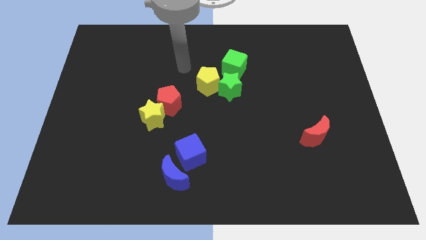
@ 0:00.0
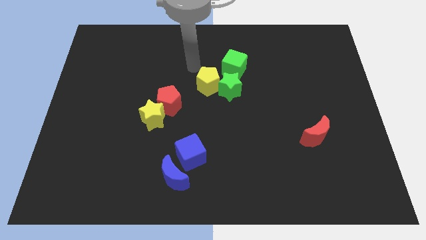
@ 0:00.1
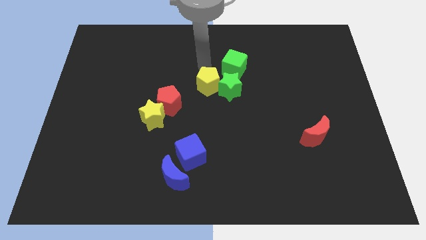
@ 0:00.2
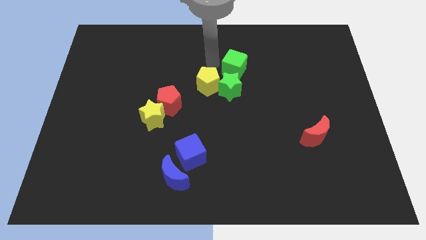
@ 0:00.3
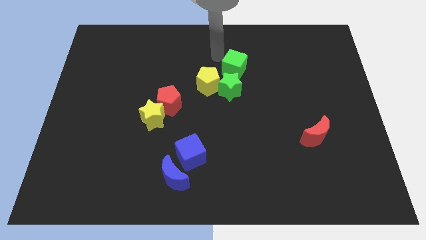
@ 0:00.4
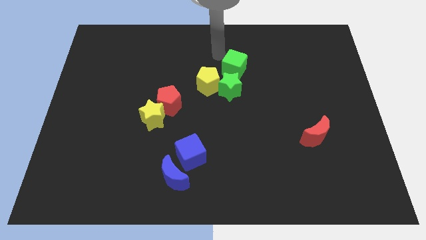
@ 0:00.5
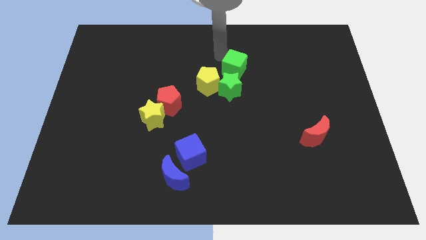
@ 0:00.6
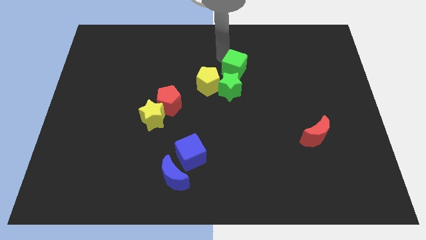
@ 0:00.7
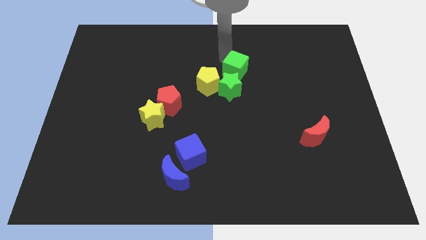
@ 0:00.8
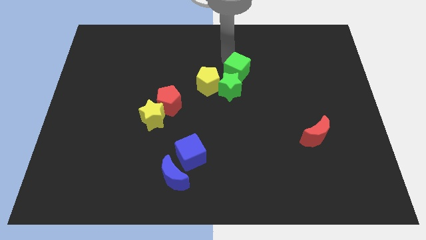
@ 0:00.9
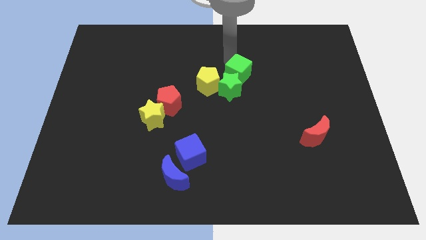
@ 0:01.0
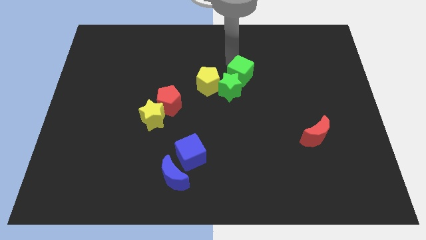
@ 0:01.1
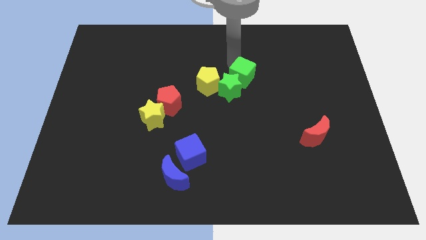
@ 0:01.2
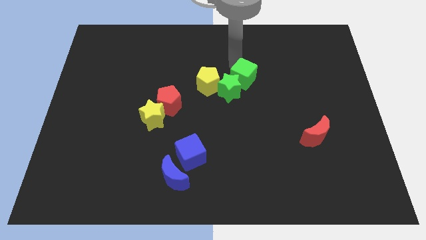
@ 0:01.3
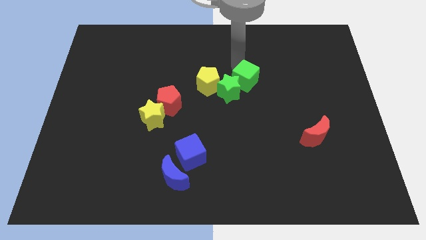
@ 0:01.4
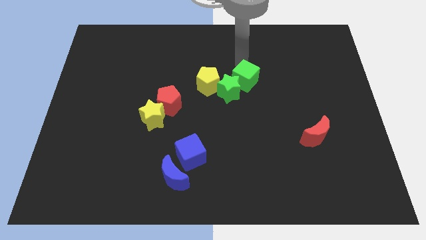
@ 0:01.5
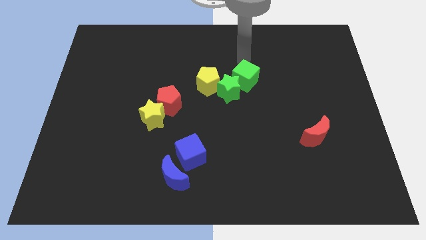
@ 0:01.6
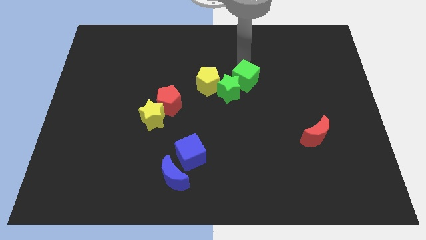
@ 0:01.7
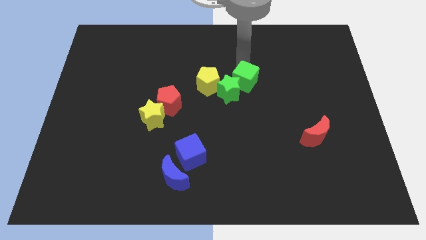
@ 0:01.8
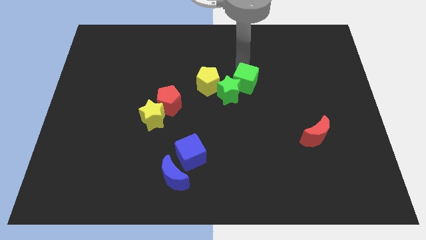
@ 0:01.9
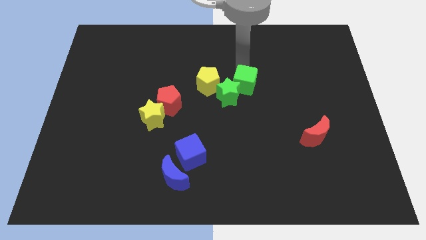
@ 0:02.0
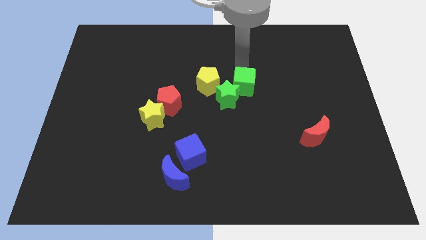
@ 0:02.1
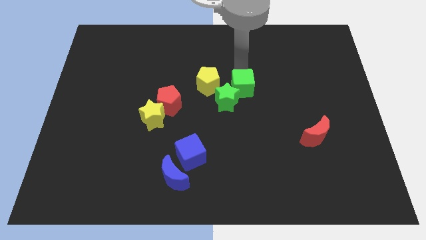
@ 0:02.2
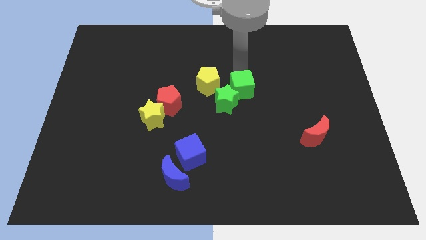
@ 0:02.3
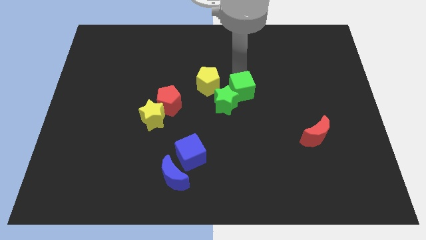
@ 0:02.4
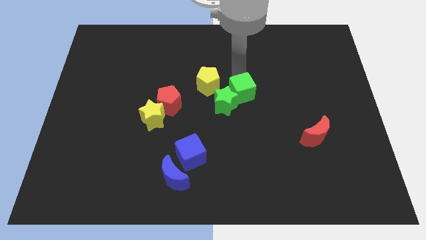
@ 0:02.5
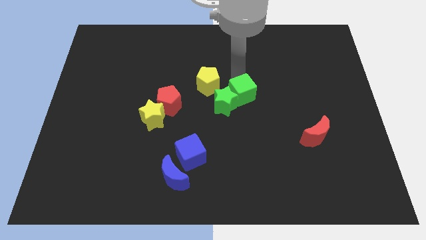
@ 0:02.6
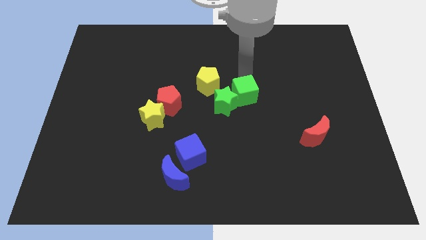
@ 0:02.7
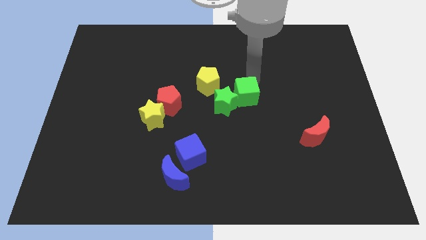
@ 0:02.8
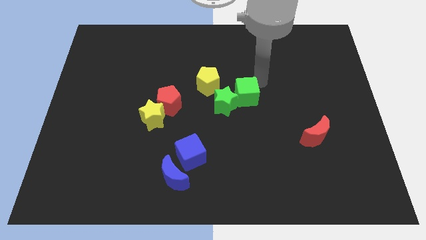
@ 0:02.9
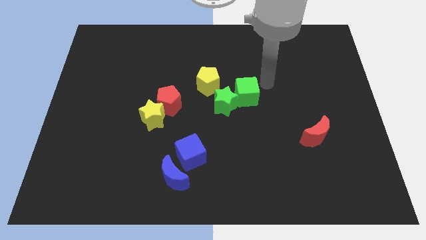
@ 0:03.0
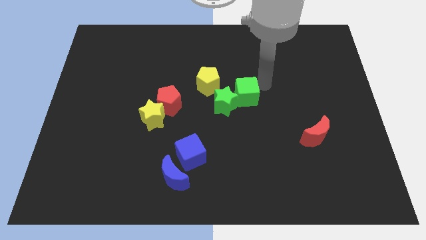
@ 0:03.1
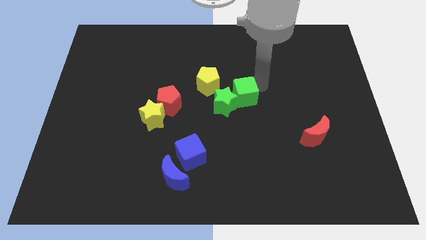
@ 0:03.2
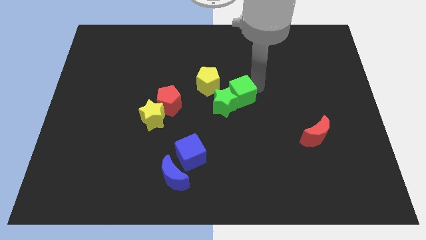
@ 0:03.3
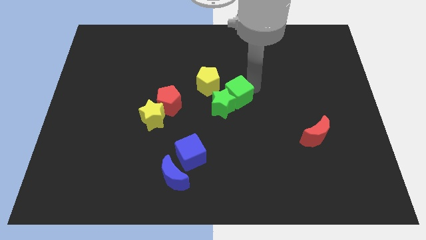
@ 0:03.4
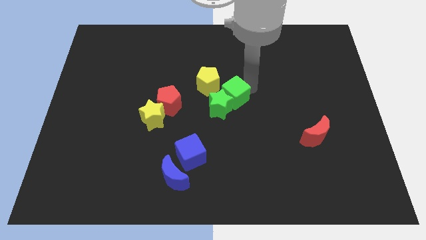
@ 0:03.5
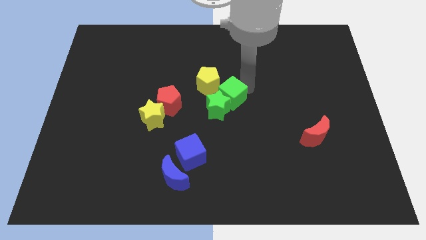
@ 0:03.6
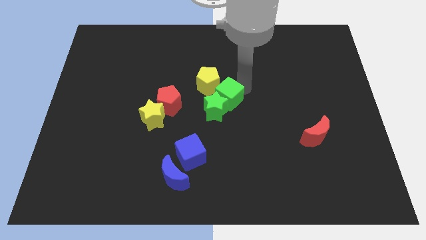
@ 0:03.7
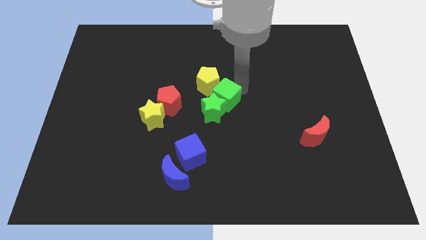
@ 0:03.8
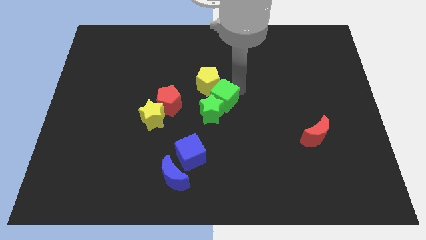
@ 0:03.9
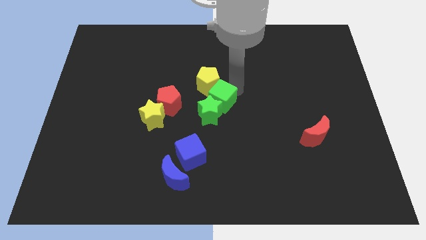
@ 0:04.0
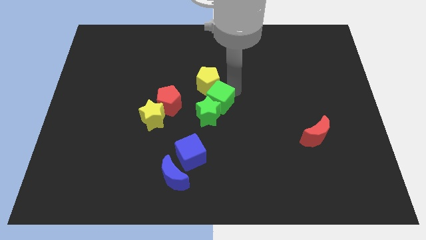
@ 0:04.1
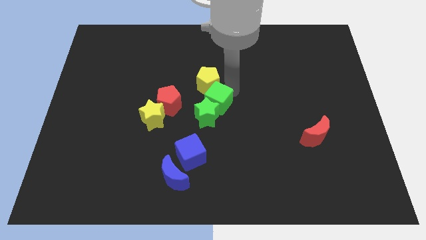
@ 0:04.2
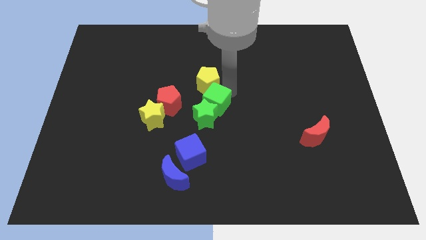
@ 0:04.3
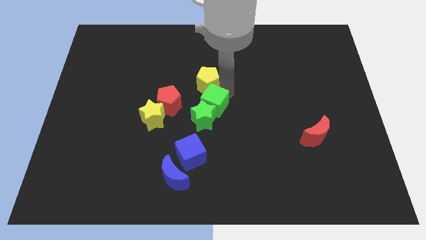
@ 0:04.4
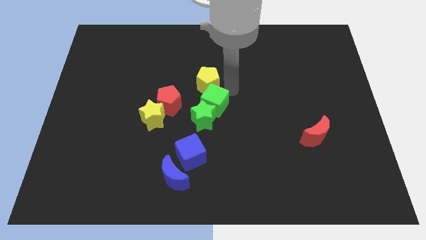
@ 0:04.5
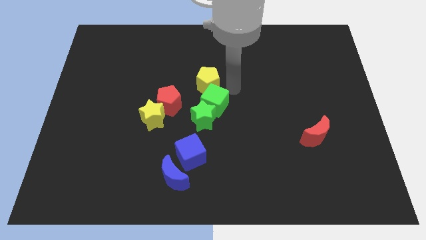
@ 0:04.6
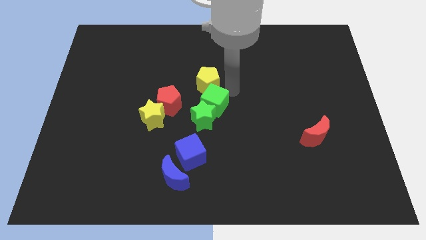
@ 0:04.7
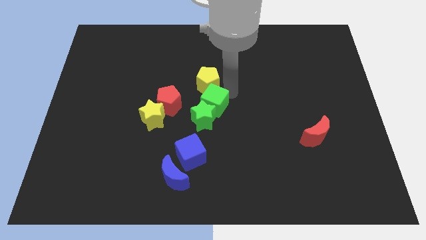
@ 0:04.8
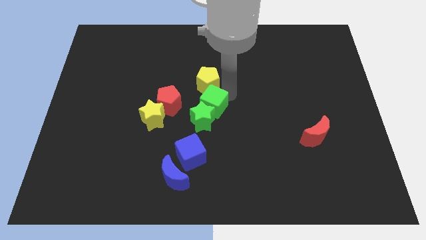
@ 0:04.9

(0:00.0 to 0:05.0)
push the green cube to the right side of the yellow star

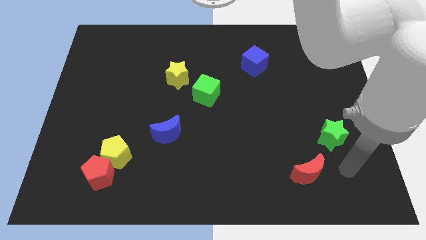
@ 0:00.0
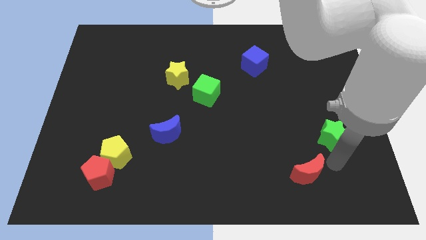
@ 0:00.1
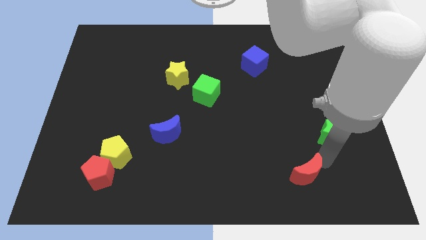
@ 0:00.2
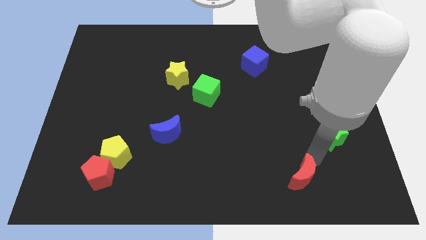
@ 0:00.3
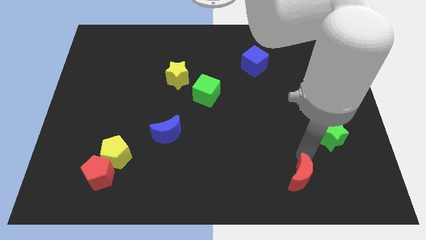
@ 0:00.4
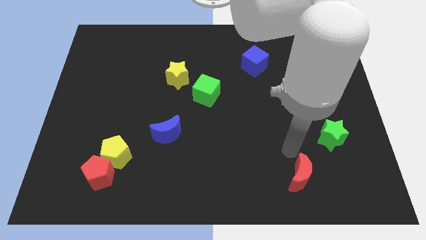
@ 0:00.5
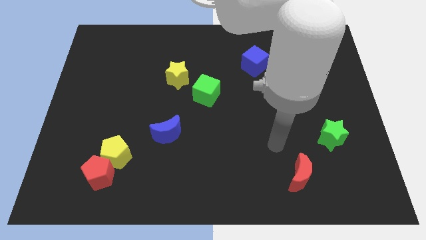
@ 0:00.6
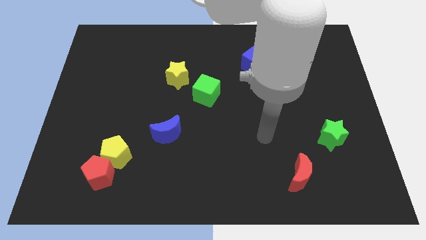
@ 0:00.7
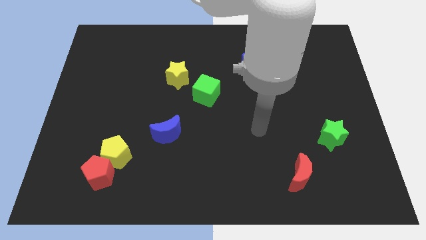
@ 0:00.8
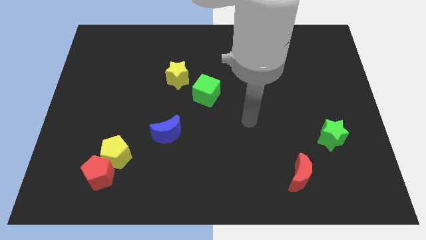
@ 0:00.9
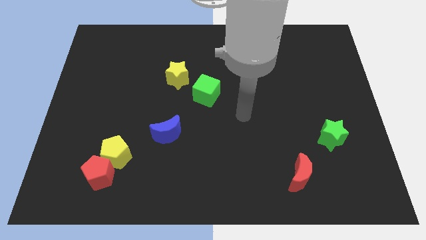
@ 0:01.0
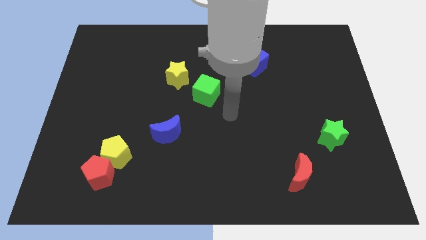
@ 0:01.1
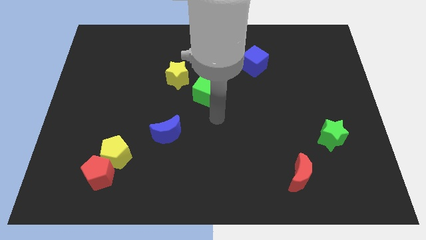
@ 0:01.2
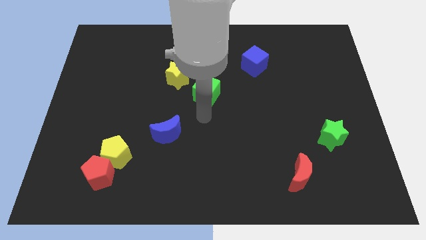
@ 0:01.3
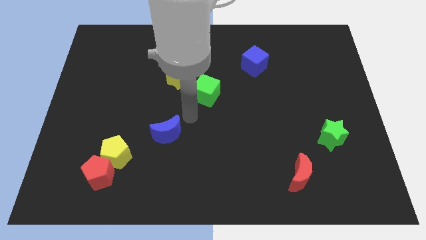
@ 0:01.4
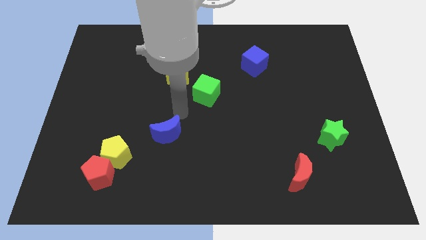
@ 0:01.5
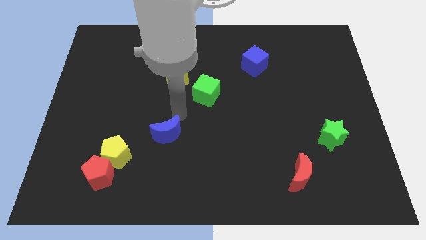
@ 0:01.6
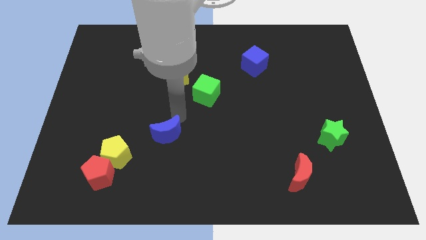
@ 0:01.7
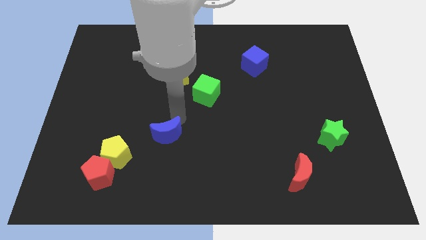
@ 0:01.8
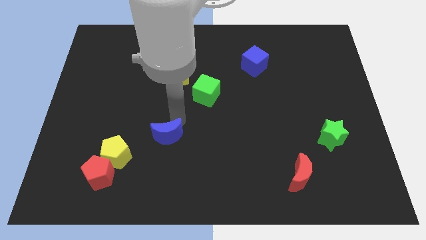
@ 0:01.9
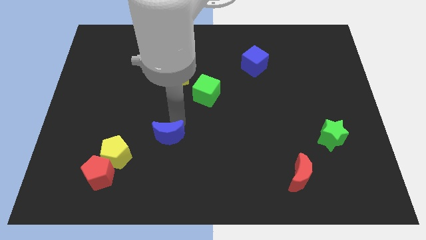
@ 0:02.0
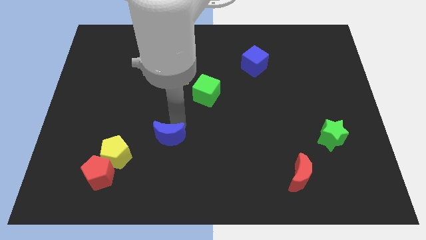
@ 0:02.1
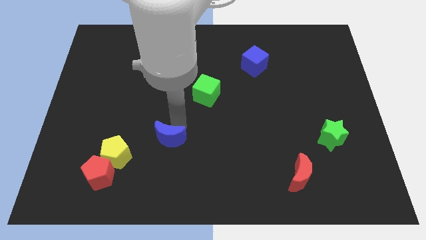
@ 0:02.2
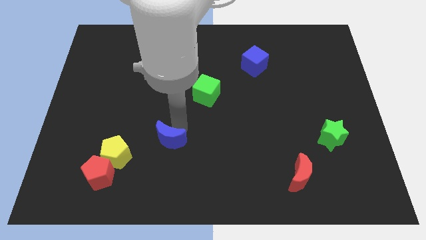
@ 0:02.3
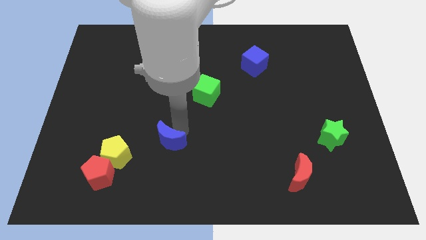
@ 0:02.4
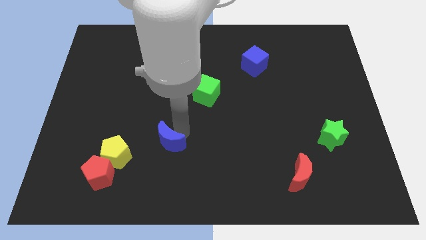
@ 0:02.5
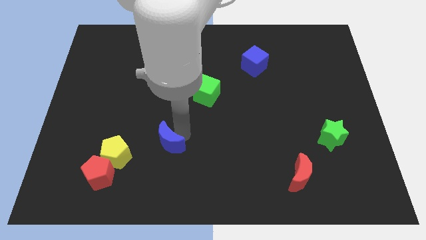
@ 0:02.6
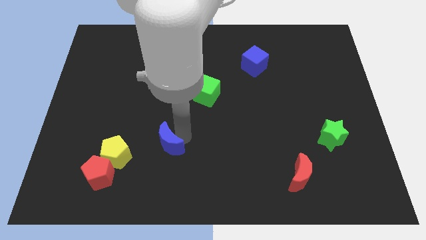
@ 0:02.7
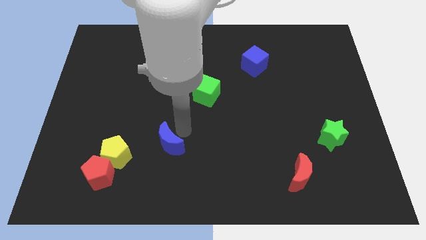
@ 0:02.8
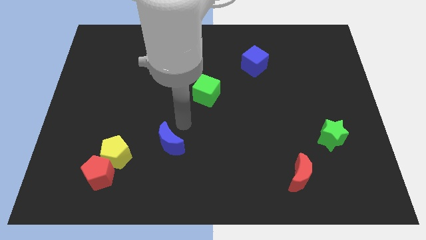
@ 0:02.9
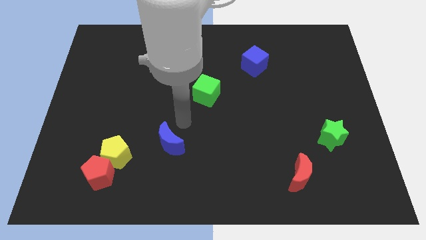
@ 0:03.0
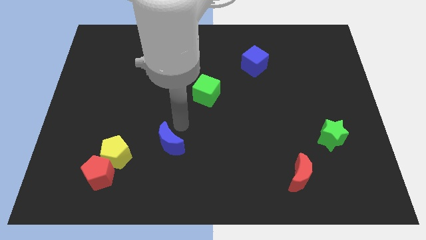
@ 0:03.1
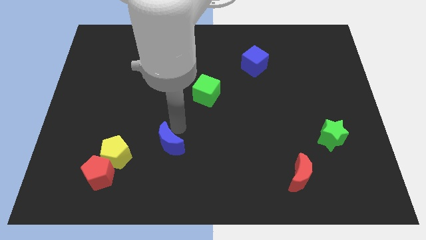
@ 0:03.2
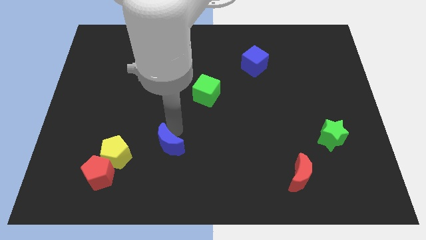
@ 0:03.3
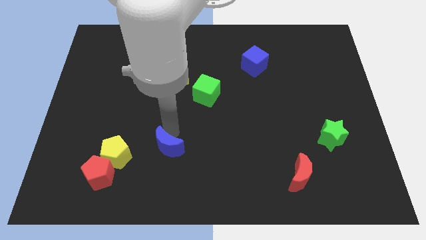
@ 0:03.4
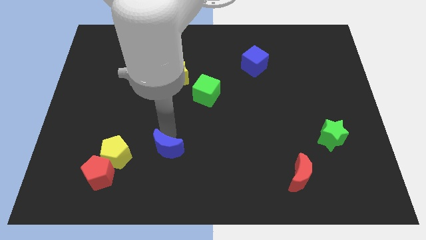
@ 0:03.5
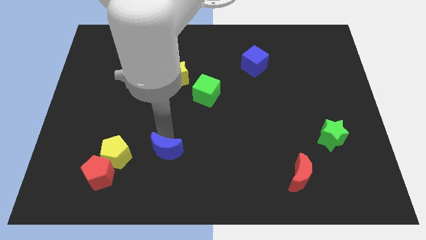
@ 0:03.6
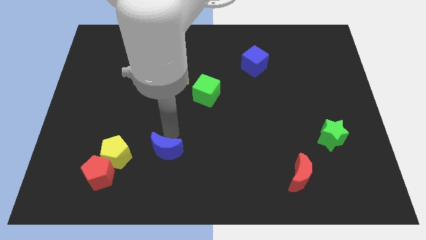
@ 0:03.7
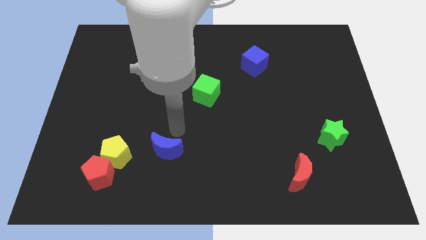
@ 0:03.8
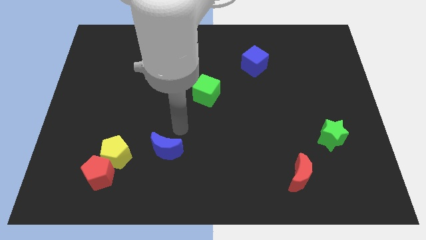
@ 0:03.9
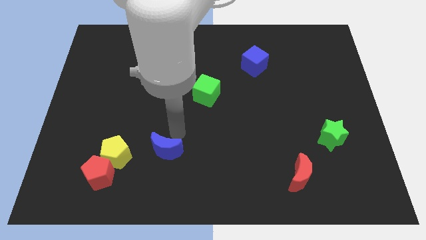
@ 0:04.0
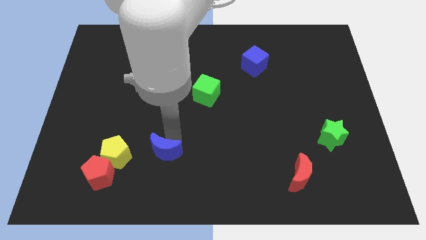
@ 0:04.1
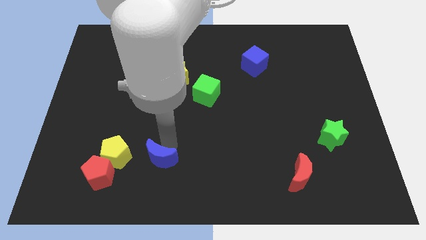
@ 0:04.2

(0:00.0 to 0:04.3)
push the blue moon right of the red pentagon
